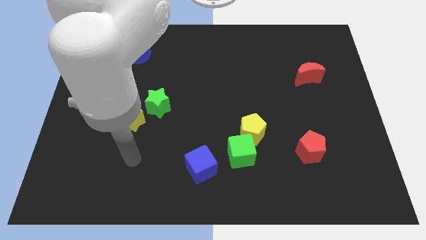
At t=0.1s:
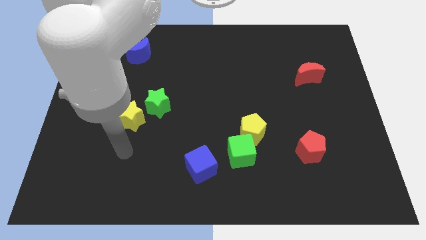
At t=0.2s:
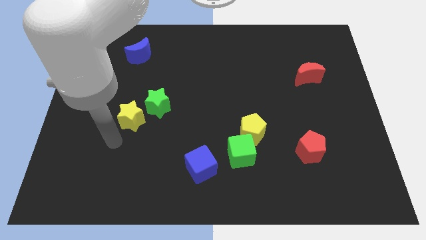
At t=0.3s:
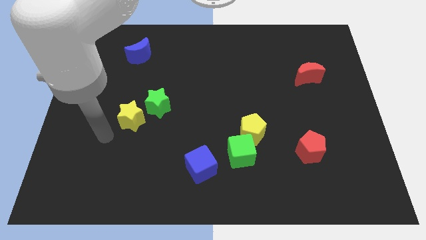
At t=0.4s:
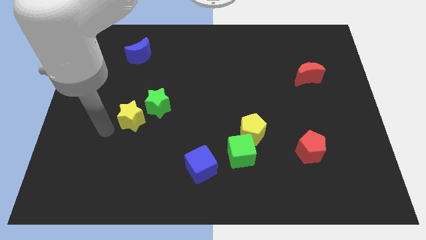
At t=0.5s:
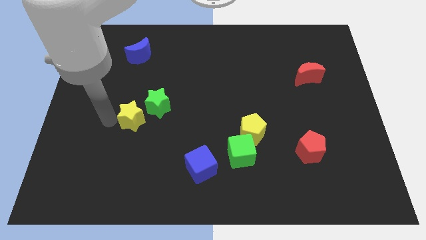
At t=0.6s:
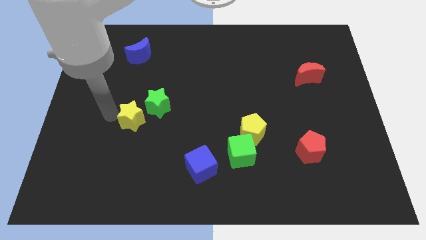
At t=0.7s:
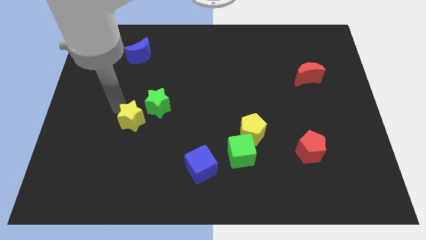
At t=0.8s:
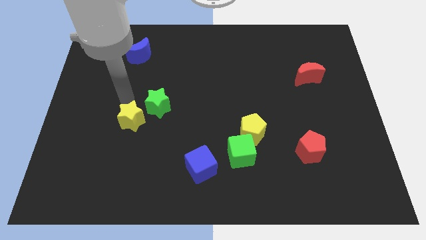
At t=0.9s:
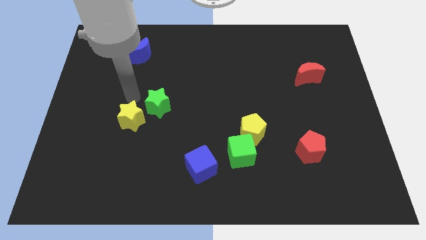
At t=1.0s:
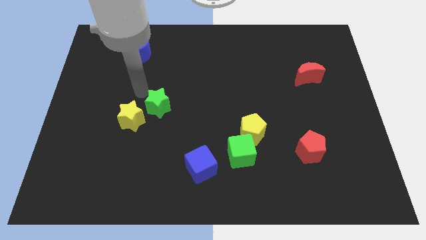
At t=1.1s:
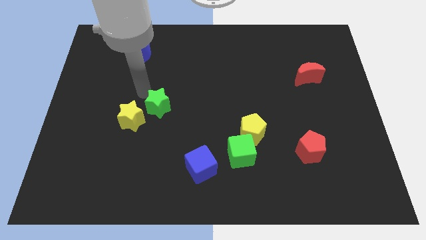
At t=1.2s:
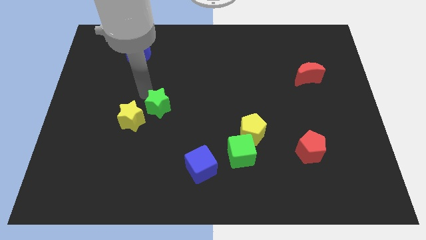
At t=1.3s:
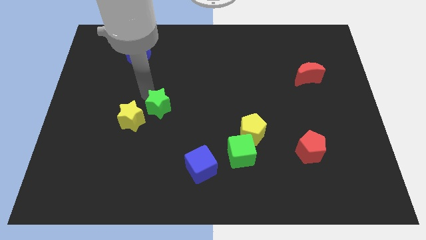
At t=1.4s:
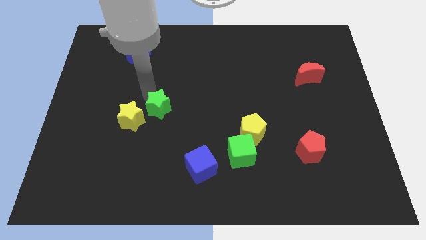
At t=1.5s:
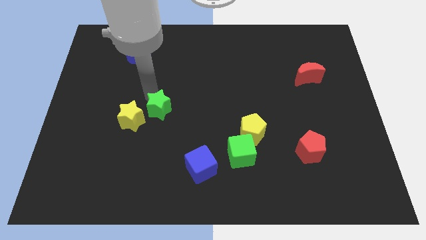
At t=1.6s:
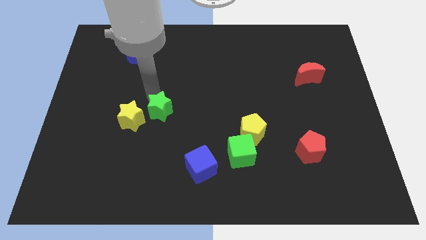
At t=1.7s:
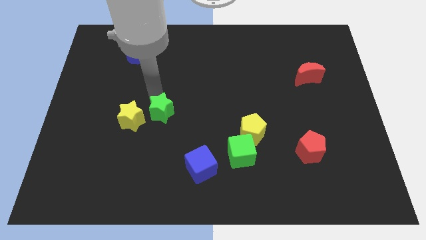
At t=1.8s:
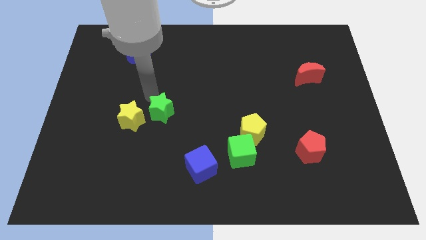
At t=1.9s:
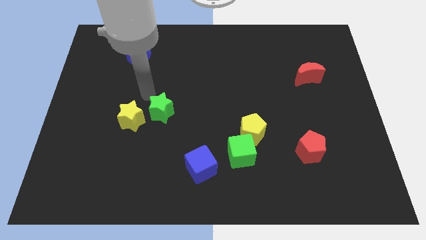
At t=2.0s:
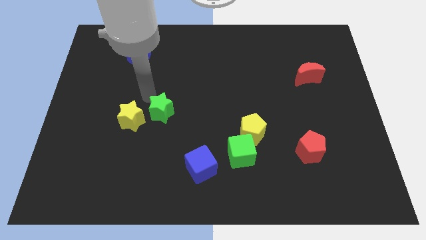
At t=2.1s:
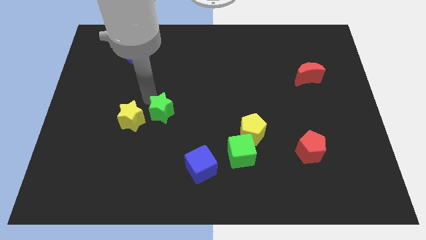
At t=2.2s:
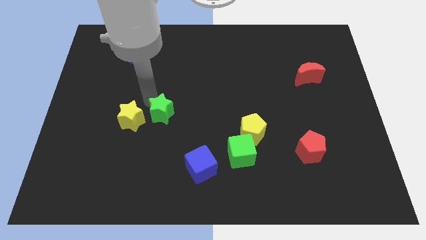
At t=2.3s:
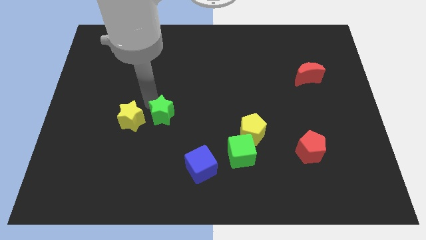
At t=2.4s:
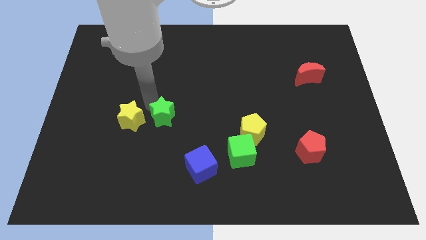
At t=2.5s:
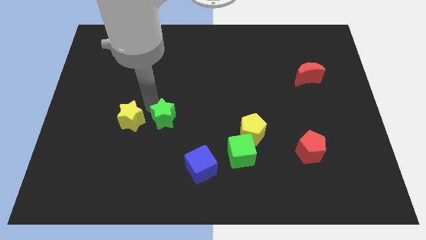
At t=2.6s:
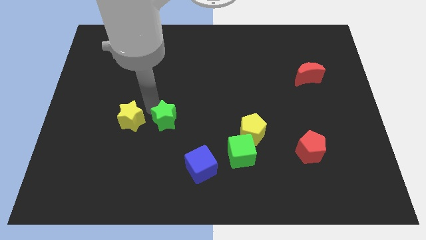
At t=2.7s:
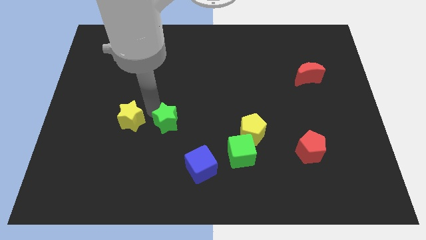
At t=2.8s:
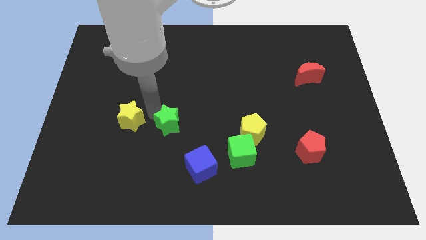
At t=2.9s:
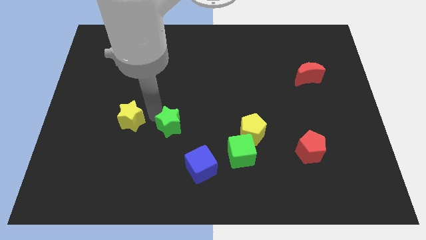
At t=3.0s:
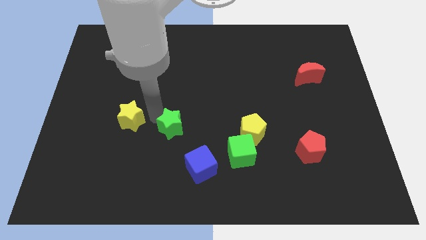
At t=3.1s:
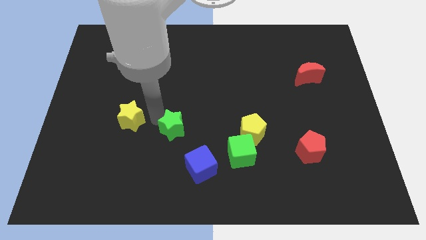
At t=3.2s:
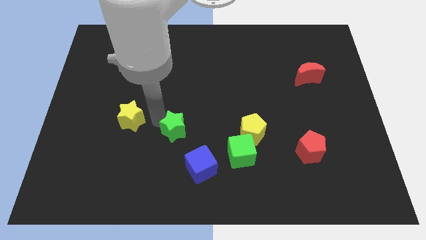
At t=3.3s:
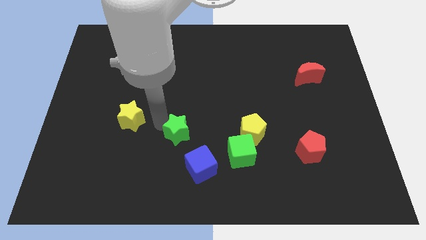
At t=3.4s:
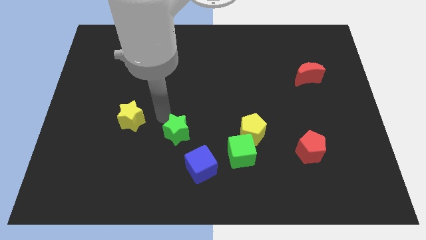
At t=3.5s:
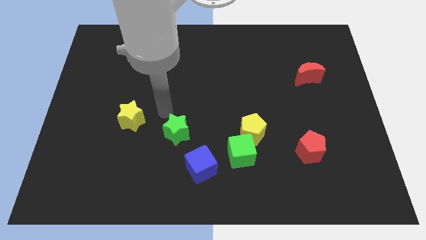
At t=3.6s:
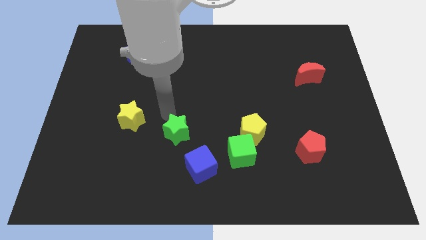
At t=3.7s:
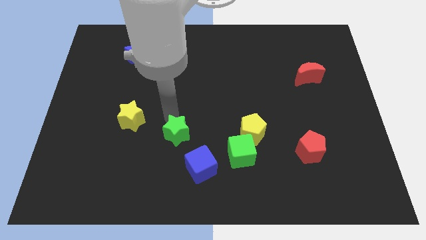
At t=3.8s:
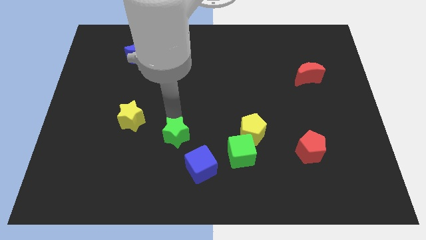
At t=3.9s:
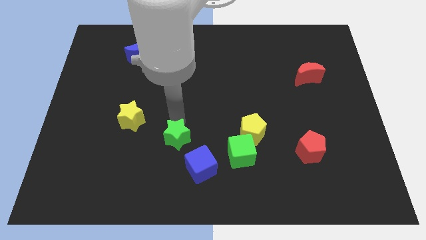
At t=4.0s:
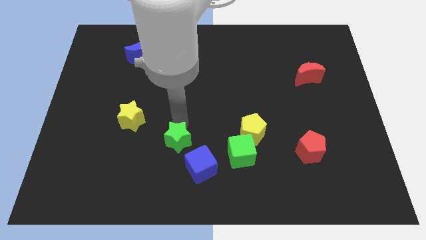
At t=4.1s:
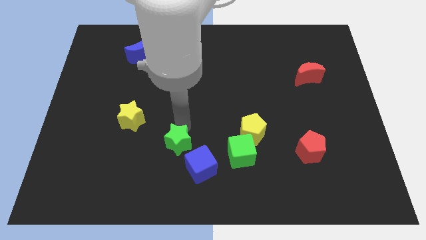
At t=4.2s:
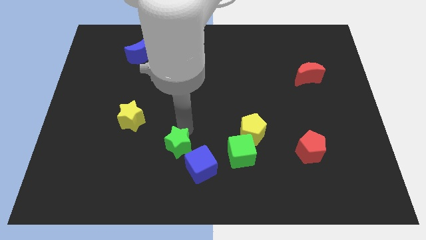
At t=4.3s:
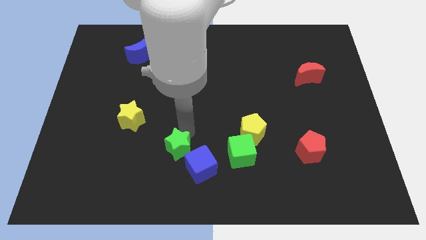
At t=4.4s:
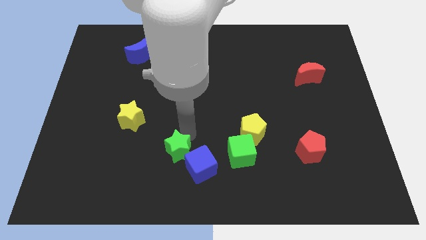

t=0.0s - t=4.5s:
move the green star close to the blue cube

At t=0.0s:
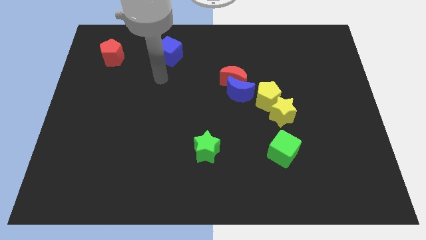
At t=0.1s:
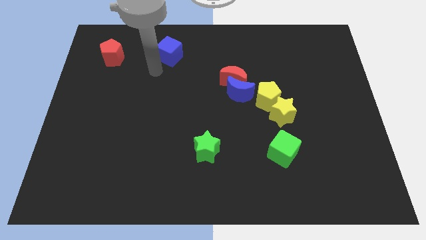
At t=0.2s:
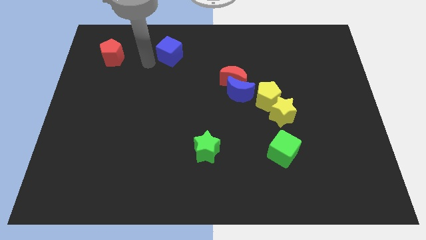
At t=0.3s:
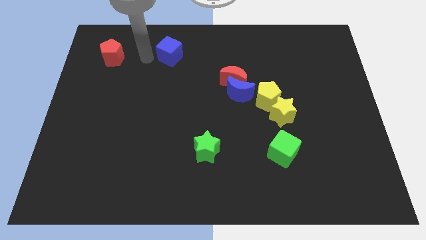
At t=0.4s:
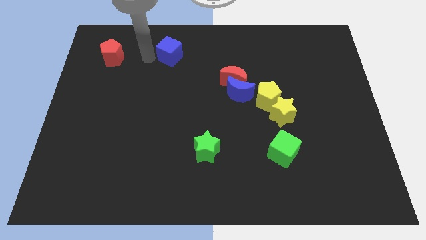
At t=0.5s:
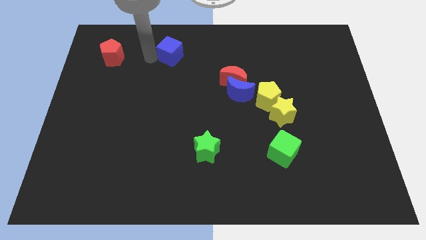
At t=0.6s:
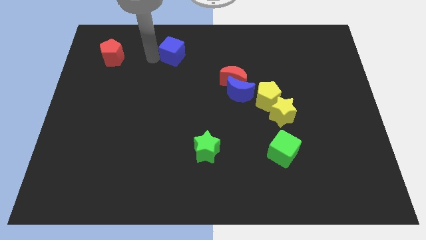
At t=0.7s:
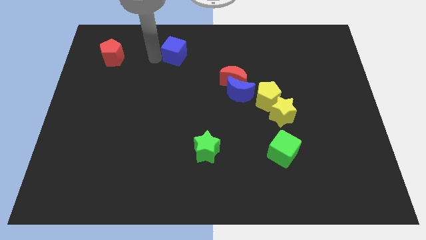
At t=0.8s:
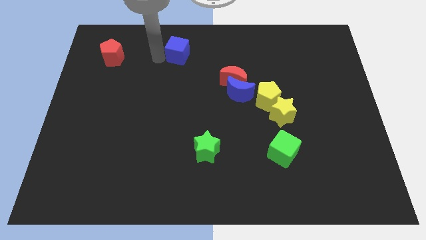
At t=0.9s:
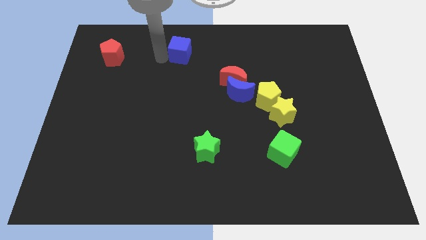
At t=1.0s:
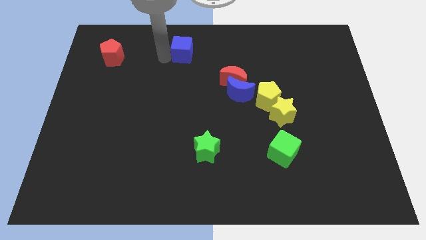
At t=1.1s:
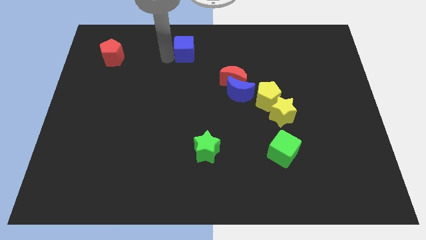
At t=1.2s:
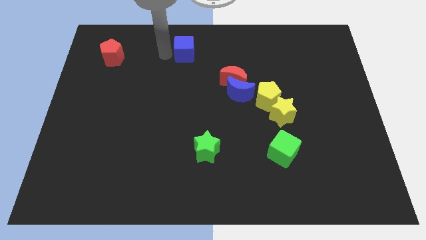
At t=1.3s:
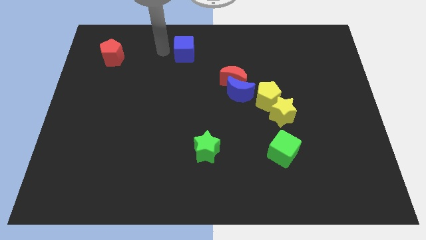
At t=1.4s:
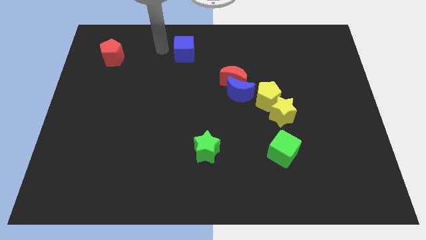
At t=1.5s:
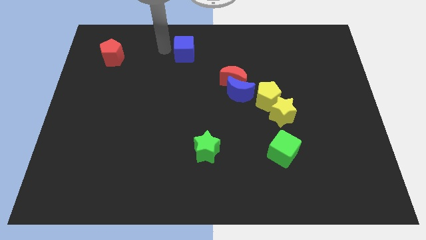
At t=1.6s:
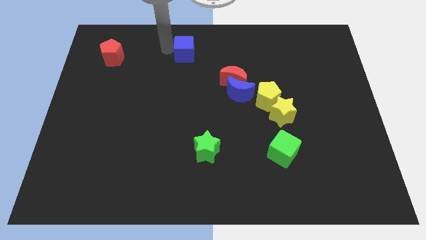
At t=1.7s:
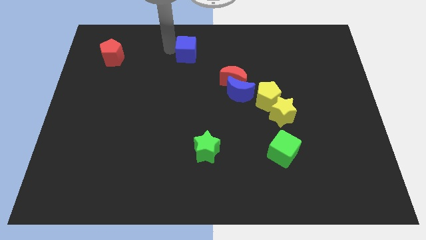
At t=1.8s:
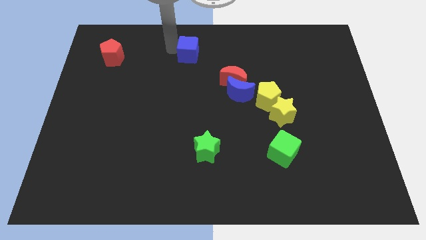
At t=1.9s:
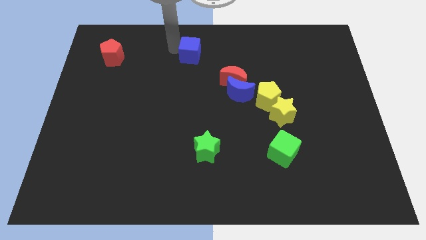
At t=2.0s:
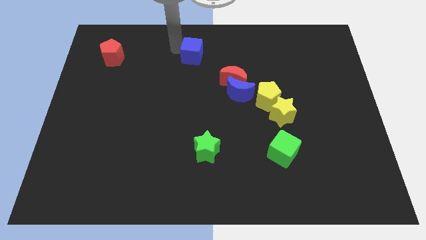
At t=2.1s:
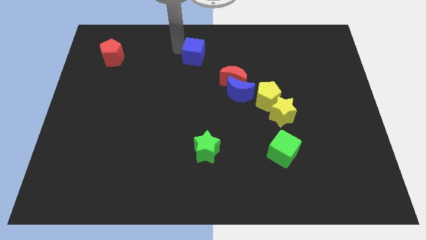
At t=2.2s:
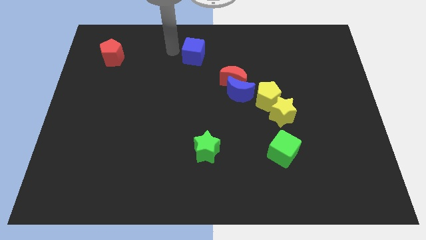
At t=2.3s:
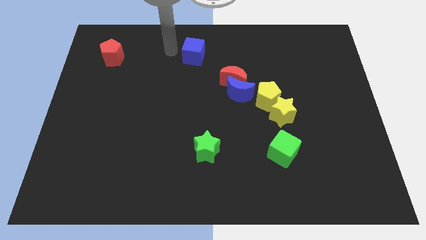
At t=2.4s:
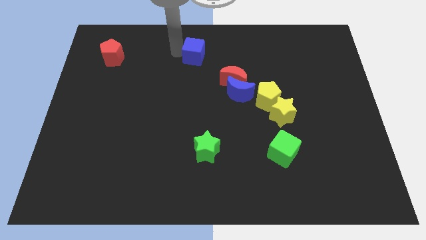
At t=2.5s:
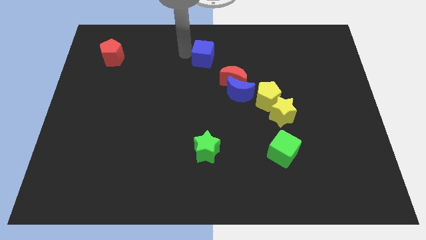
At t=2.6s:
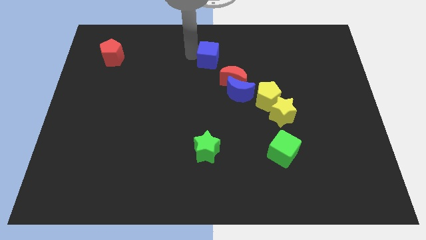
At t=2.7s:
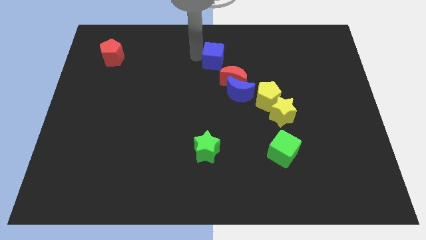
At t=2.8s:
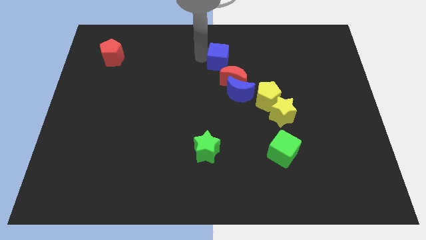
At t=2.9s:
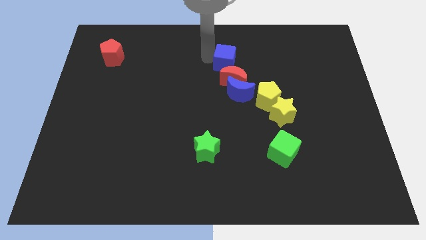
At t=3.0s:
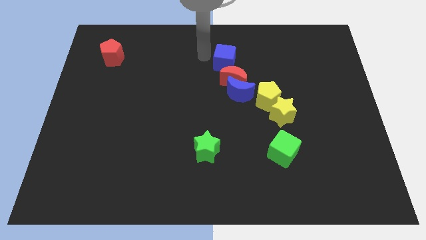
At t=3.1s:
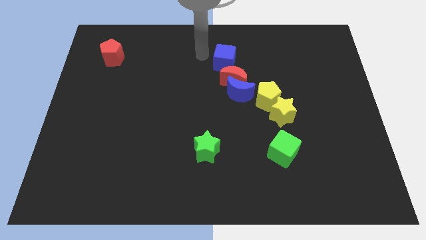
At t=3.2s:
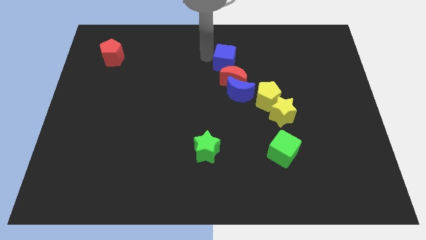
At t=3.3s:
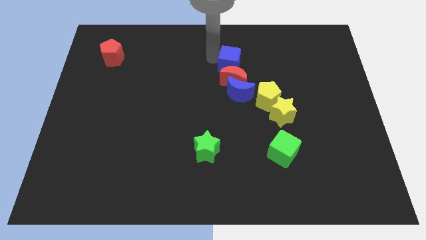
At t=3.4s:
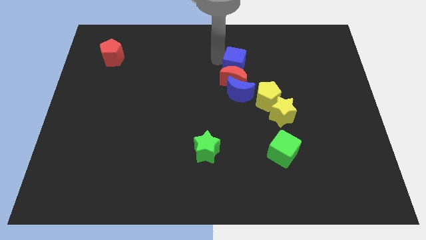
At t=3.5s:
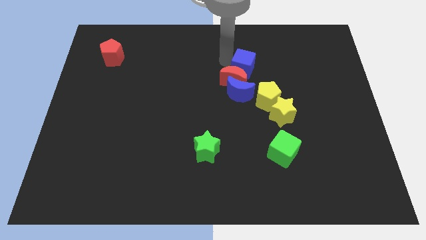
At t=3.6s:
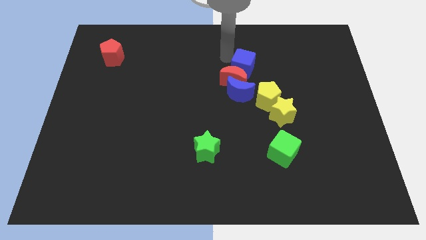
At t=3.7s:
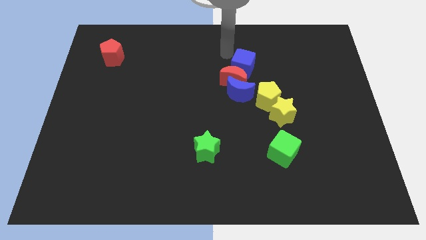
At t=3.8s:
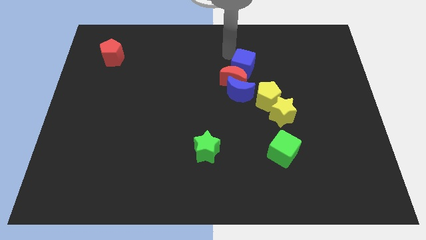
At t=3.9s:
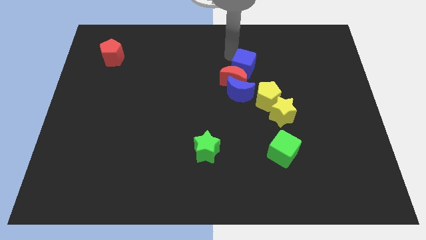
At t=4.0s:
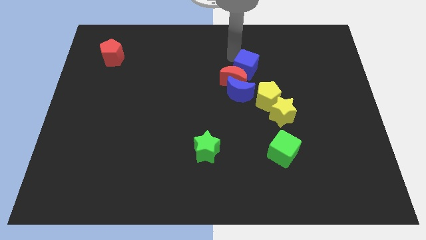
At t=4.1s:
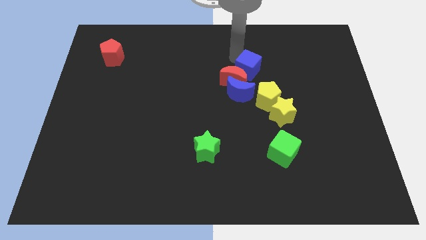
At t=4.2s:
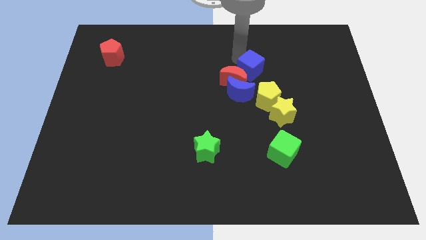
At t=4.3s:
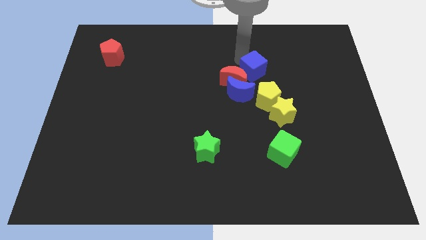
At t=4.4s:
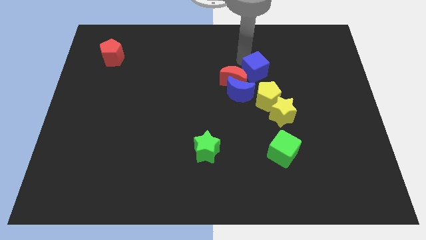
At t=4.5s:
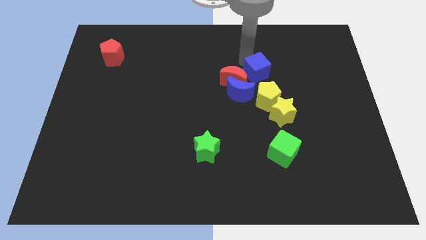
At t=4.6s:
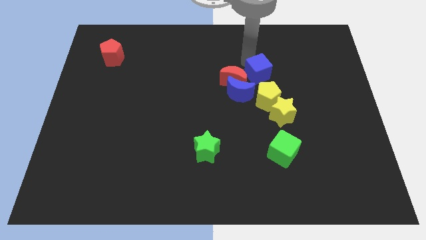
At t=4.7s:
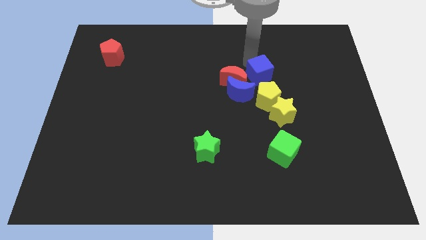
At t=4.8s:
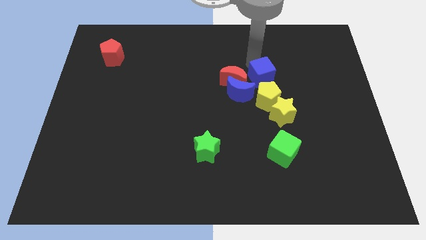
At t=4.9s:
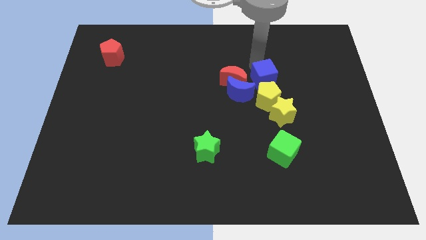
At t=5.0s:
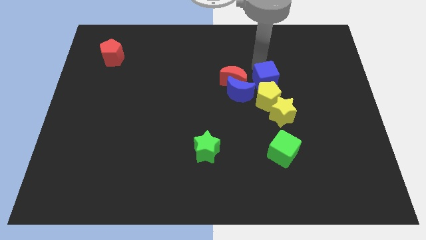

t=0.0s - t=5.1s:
put the blue cube next to the yellow pentagon
